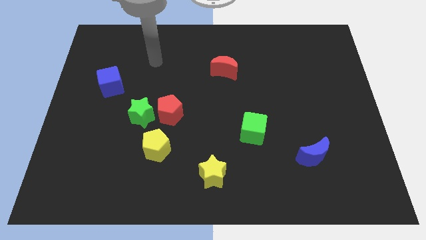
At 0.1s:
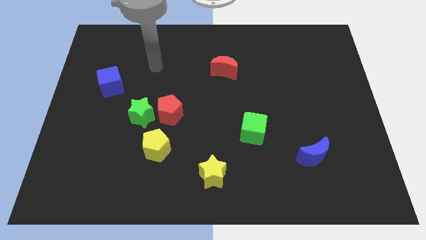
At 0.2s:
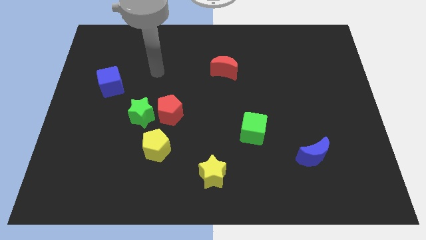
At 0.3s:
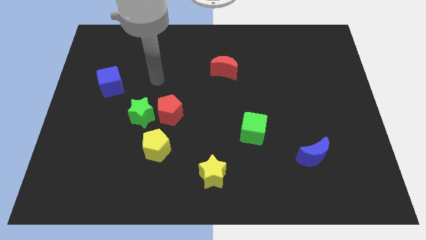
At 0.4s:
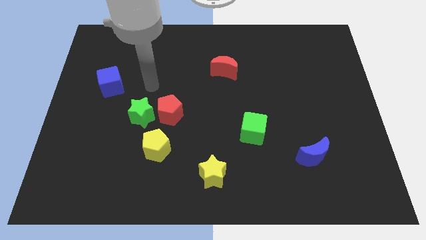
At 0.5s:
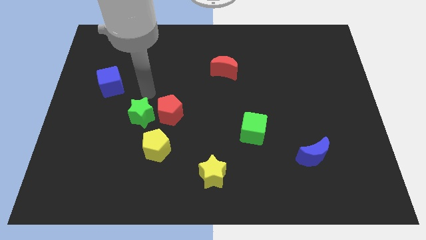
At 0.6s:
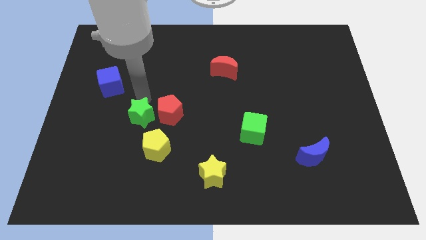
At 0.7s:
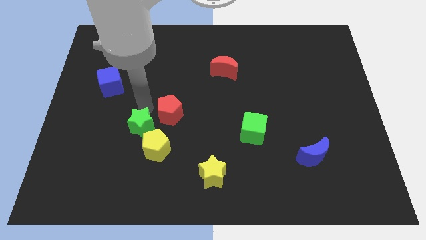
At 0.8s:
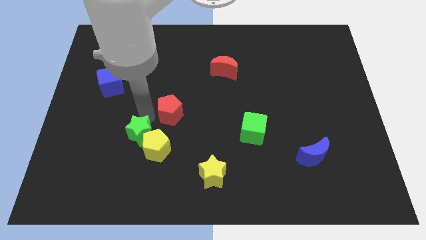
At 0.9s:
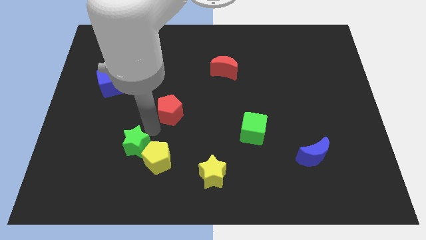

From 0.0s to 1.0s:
pull the red pentagon apart from the green star and yellow pentagon

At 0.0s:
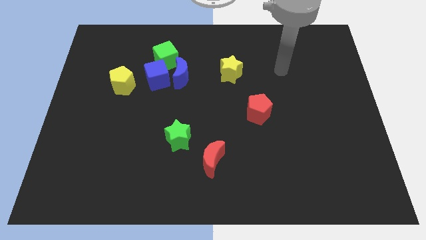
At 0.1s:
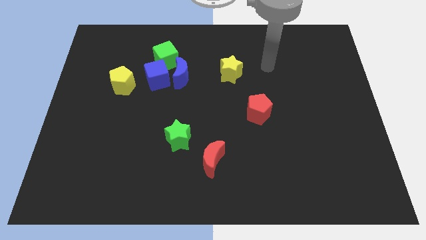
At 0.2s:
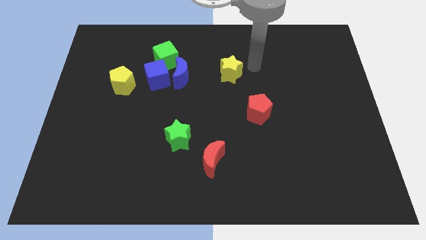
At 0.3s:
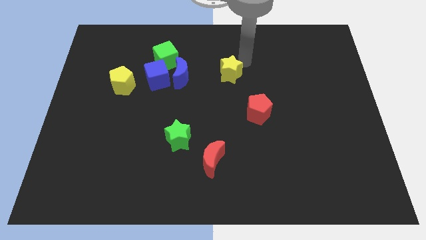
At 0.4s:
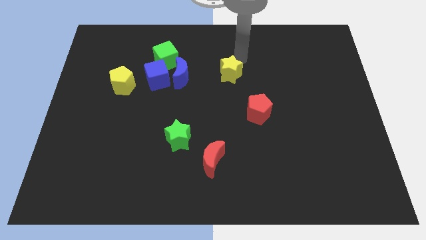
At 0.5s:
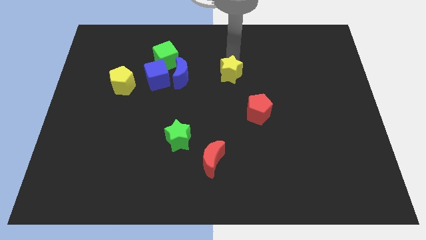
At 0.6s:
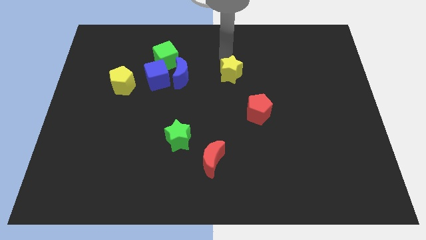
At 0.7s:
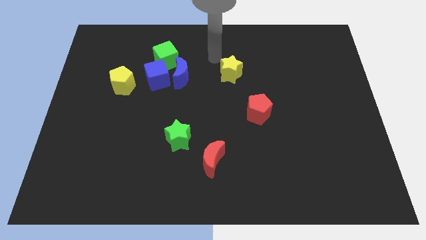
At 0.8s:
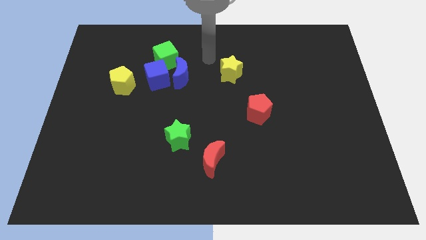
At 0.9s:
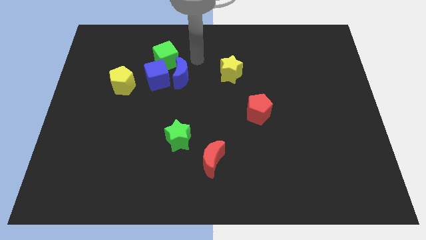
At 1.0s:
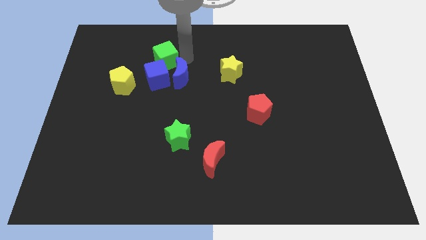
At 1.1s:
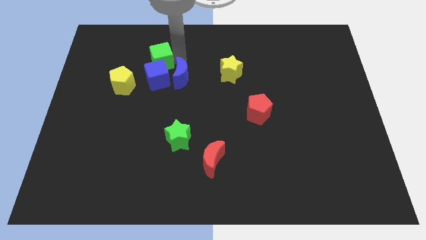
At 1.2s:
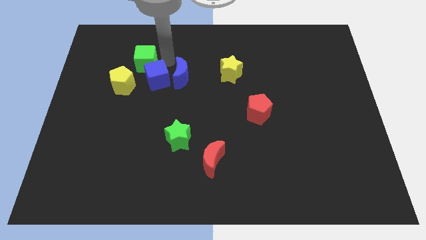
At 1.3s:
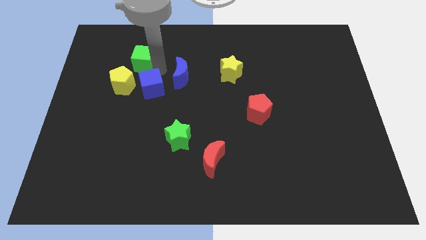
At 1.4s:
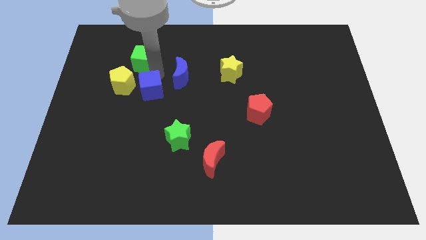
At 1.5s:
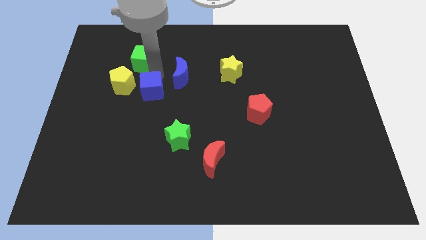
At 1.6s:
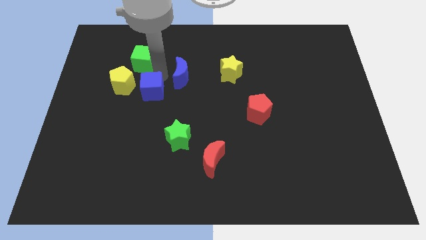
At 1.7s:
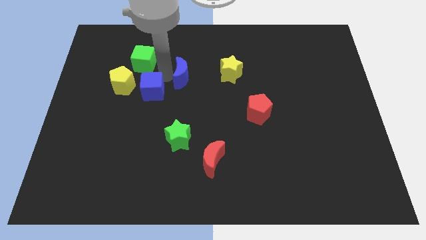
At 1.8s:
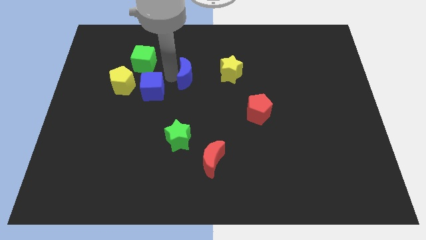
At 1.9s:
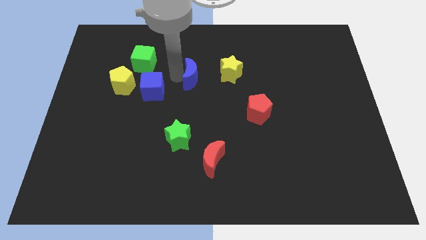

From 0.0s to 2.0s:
separate the blue moon from the blue cube and green cube

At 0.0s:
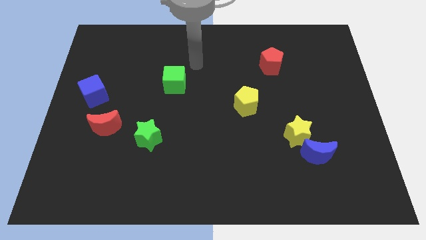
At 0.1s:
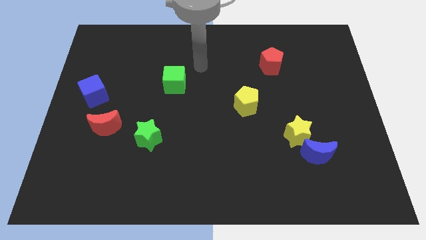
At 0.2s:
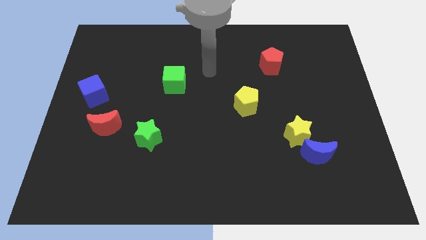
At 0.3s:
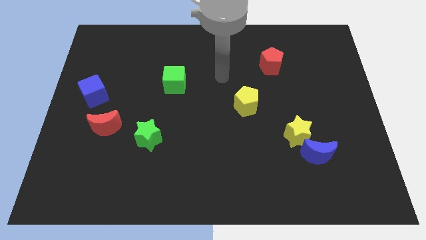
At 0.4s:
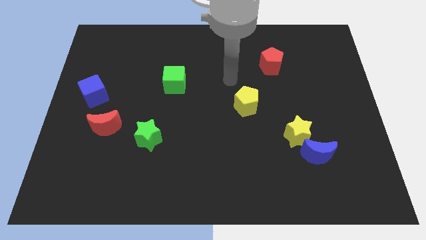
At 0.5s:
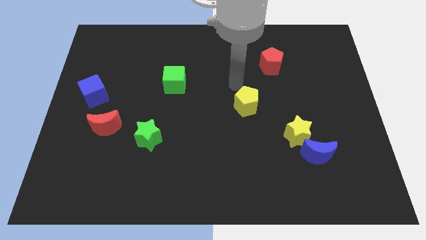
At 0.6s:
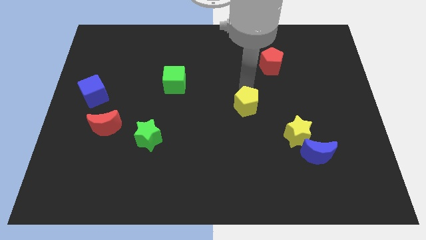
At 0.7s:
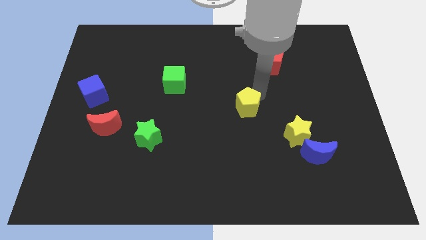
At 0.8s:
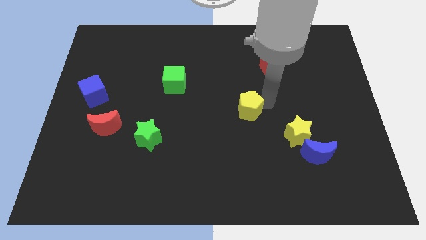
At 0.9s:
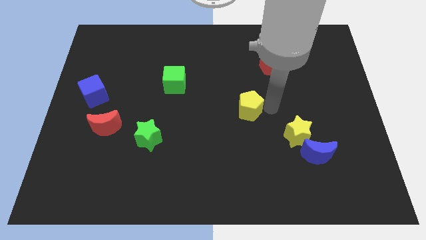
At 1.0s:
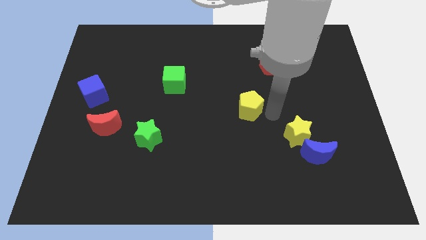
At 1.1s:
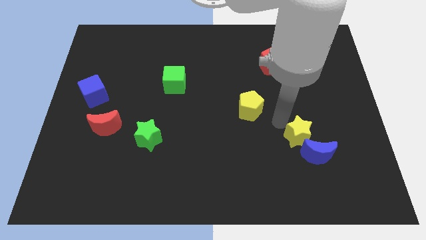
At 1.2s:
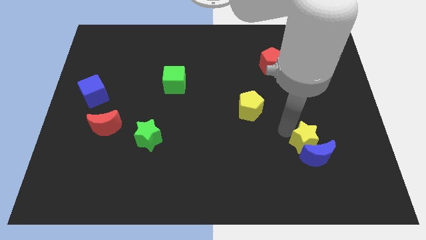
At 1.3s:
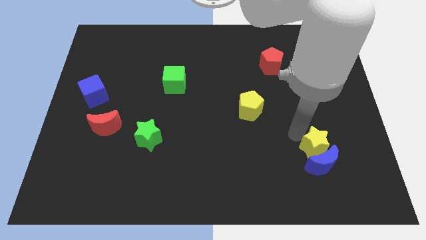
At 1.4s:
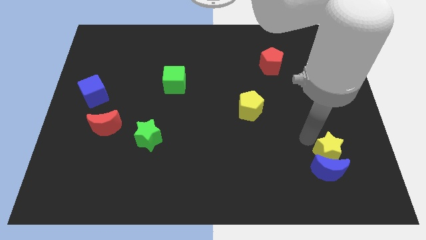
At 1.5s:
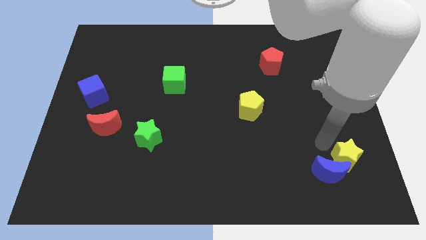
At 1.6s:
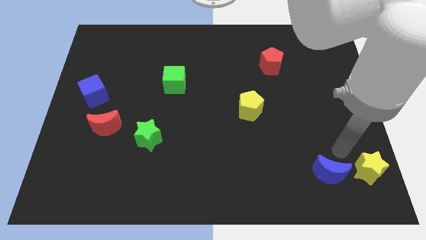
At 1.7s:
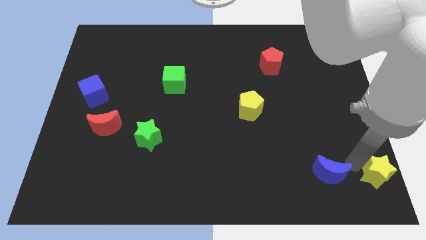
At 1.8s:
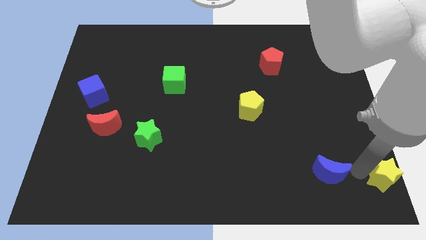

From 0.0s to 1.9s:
move the blue moon away from the yellow star

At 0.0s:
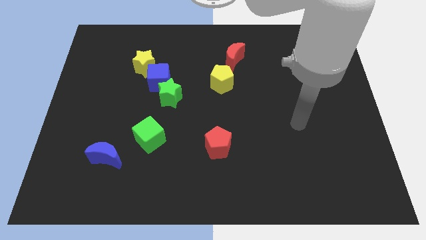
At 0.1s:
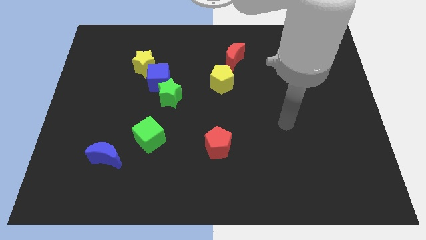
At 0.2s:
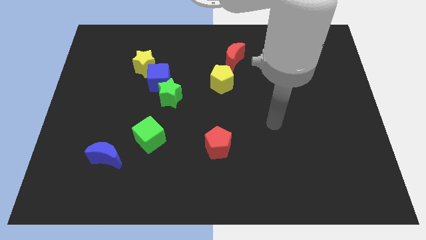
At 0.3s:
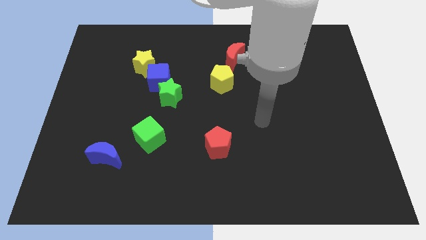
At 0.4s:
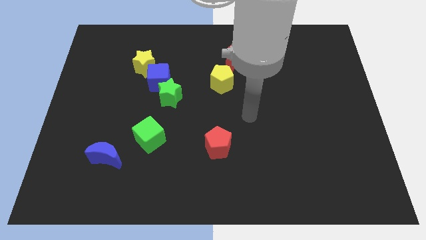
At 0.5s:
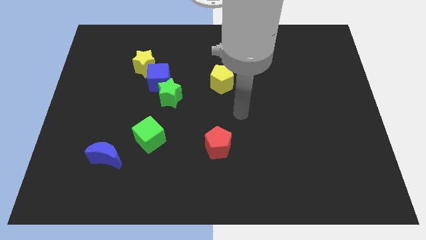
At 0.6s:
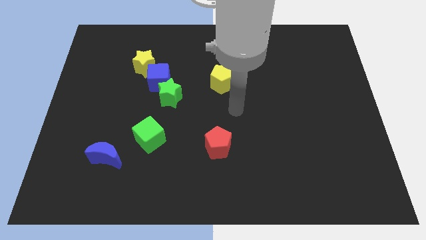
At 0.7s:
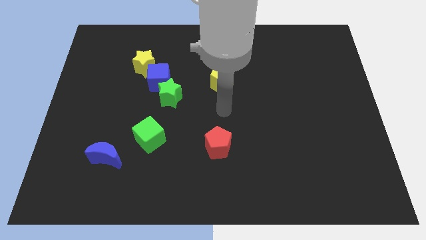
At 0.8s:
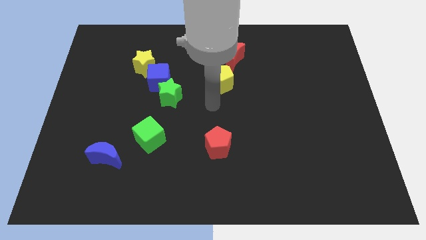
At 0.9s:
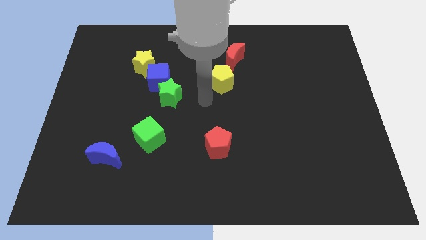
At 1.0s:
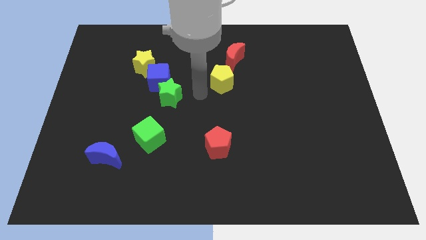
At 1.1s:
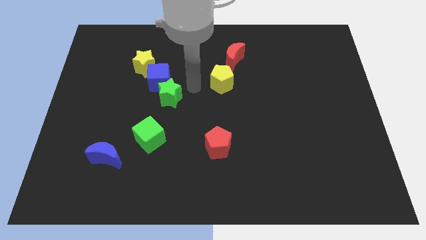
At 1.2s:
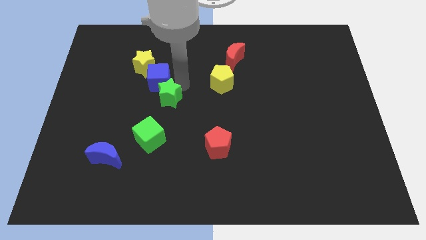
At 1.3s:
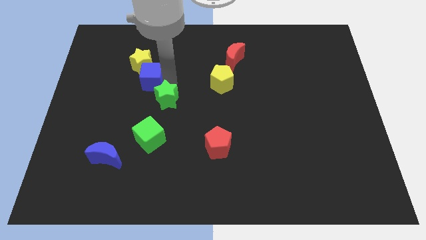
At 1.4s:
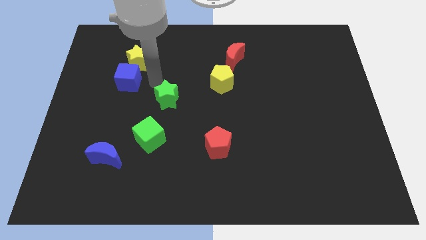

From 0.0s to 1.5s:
separate the green star from the blue cube

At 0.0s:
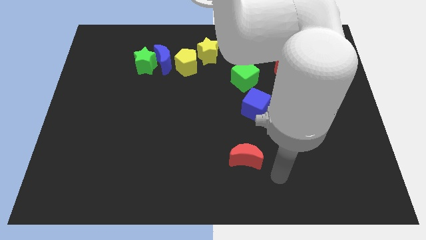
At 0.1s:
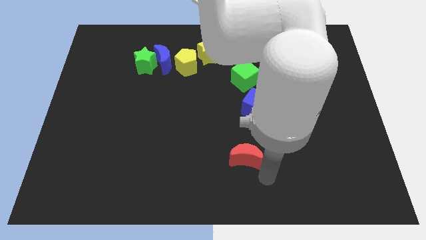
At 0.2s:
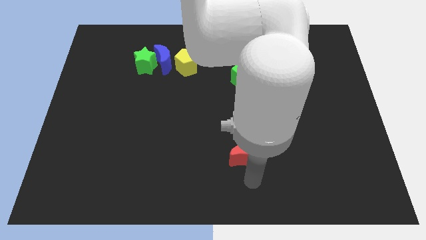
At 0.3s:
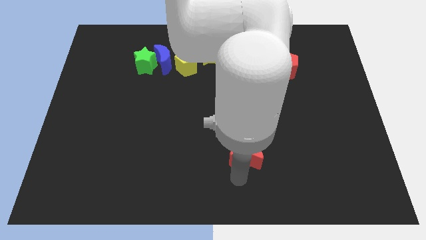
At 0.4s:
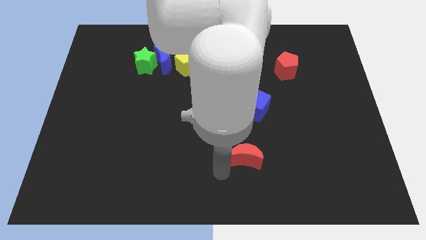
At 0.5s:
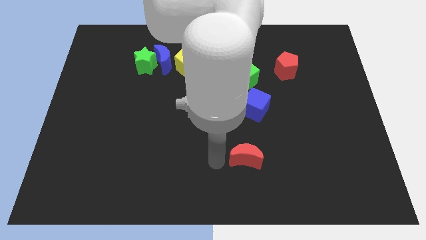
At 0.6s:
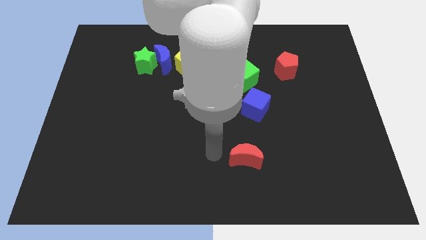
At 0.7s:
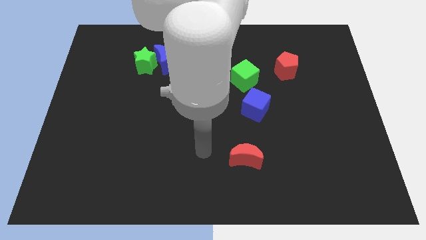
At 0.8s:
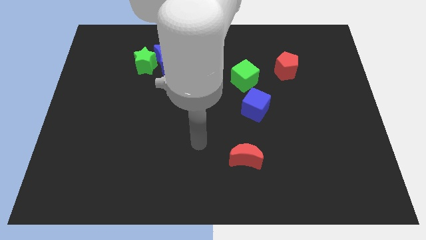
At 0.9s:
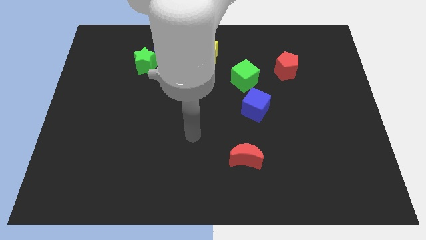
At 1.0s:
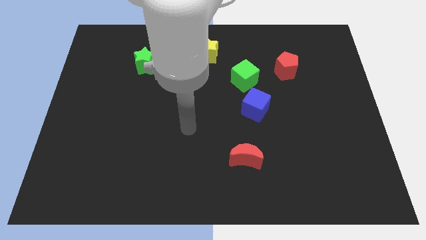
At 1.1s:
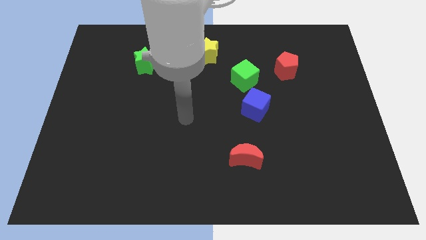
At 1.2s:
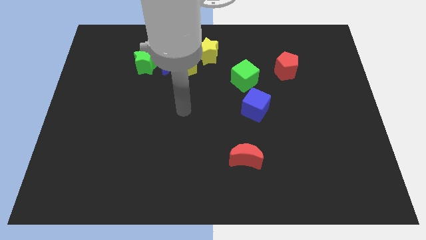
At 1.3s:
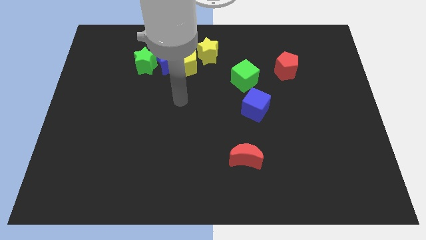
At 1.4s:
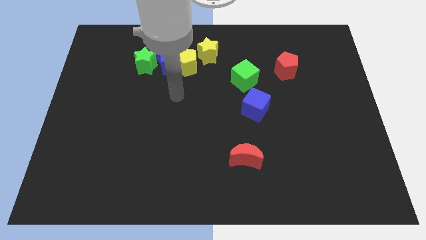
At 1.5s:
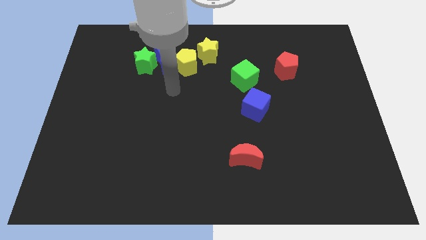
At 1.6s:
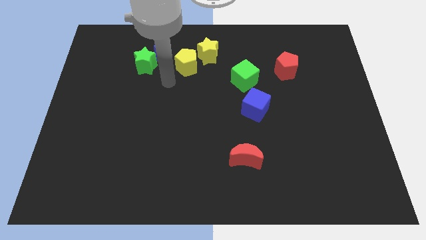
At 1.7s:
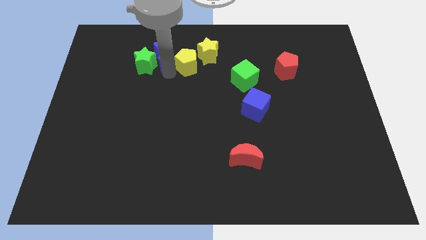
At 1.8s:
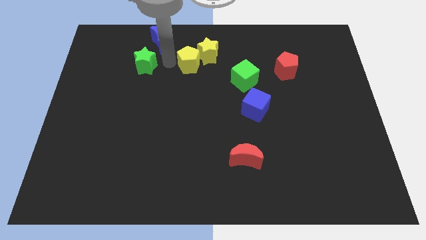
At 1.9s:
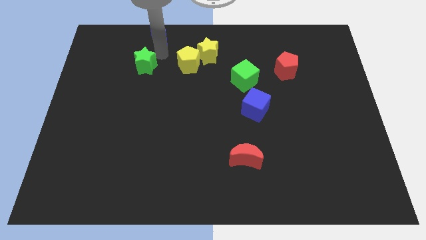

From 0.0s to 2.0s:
pull the green star apart from the blue moon

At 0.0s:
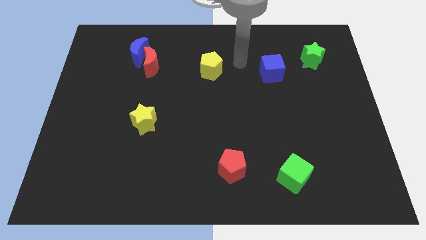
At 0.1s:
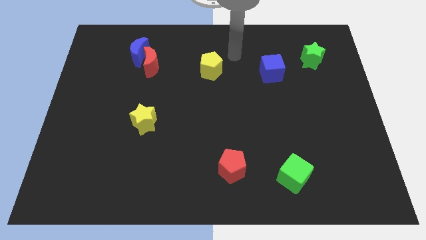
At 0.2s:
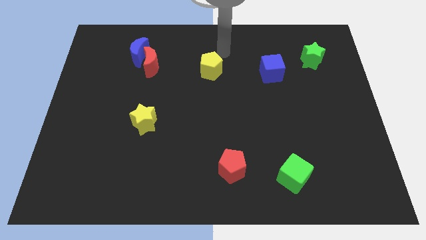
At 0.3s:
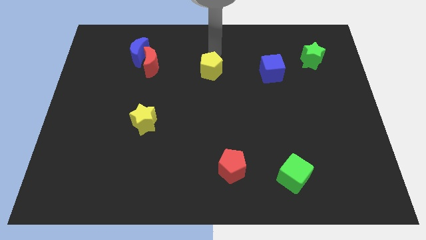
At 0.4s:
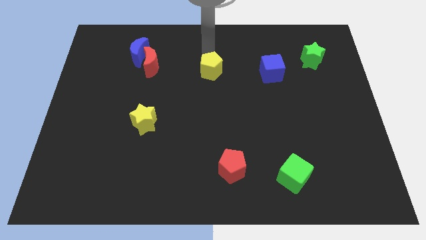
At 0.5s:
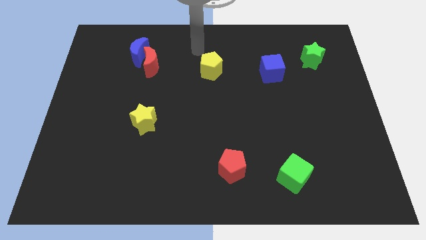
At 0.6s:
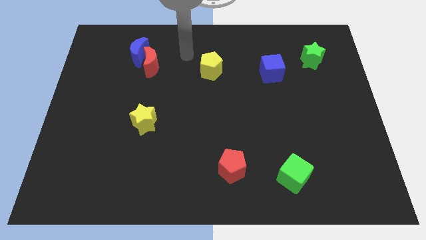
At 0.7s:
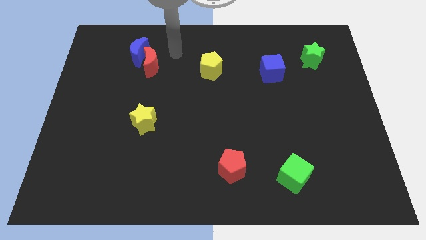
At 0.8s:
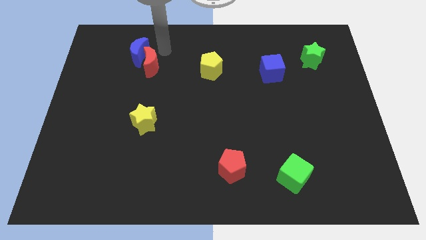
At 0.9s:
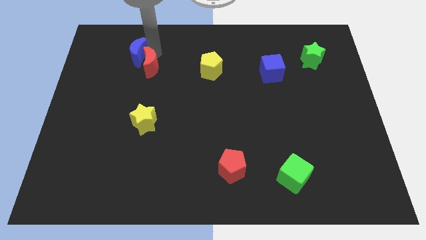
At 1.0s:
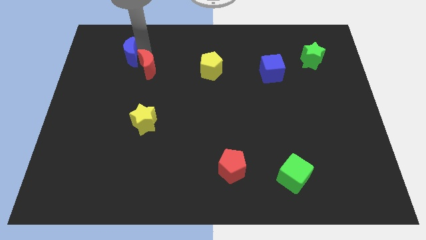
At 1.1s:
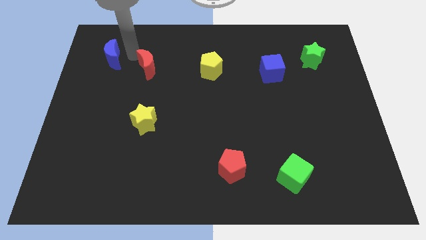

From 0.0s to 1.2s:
separate the red moon from the blue moon
